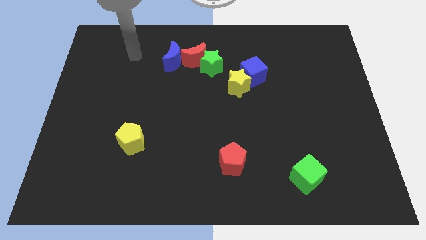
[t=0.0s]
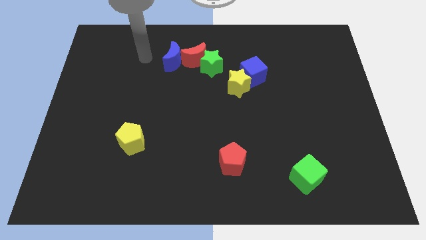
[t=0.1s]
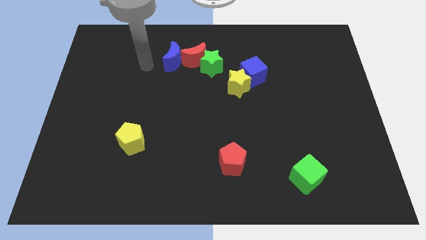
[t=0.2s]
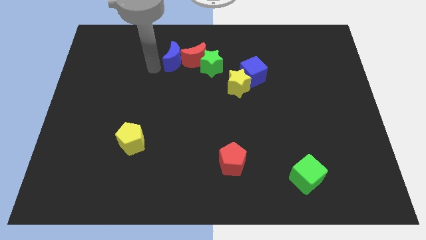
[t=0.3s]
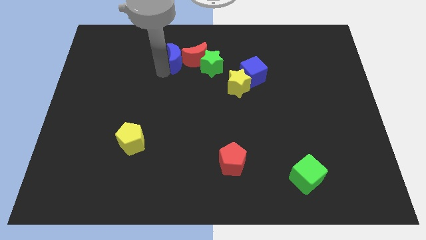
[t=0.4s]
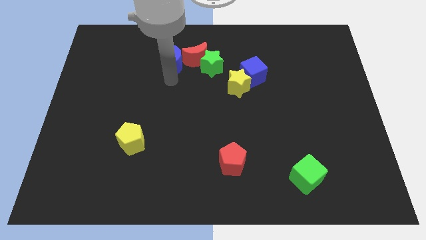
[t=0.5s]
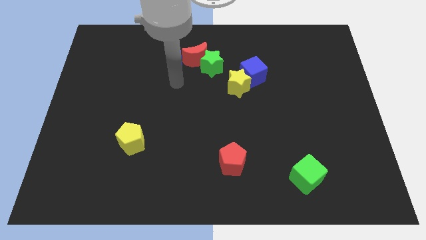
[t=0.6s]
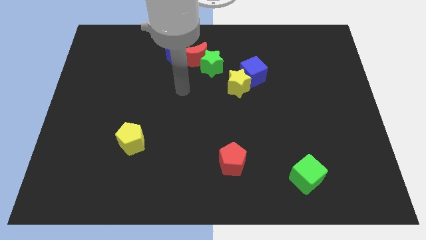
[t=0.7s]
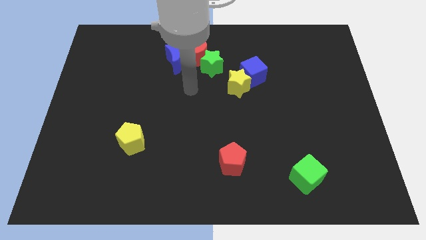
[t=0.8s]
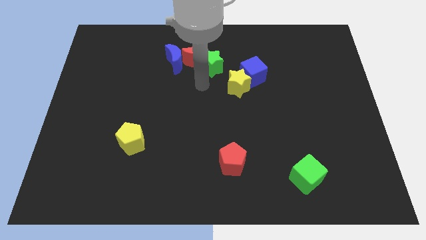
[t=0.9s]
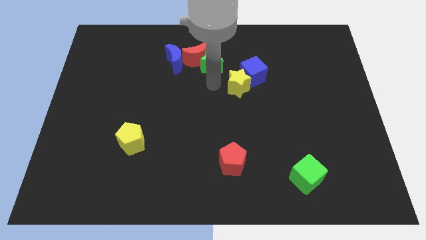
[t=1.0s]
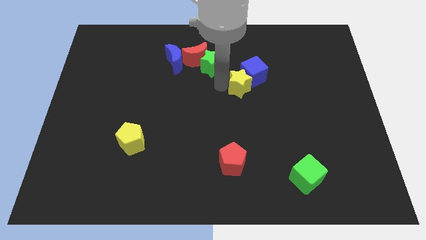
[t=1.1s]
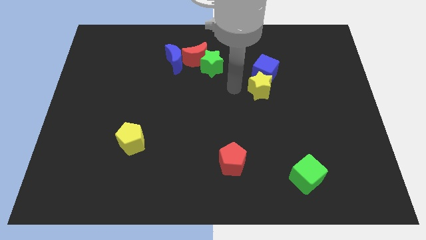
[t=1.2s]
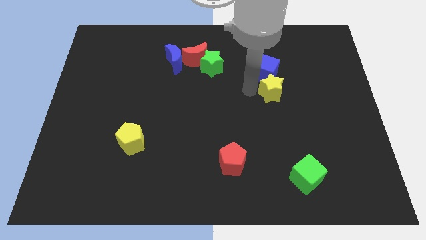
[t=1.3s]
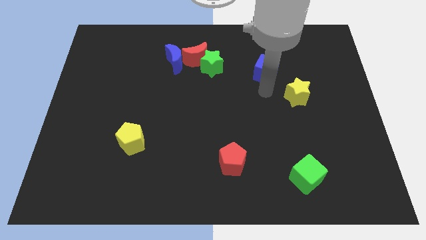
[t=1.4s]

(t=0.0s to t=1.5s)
separate the blue cube from the yellow star

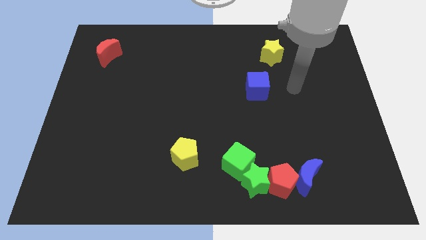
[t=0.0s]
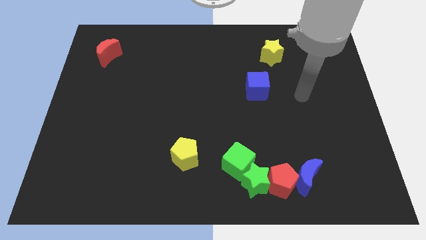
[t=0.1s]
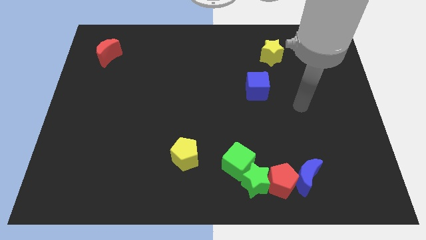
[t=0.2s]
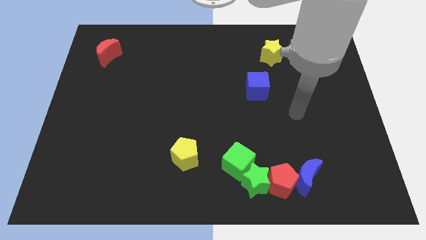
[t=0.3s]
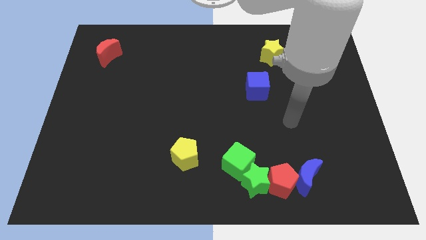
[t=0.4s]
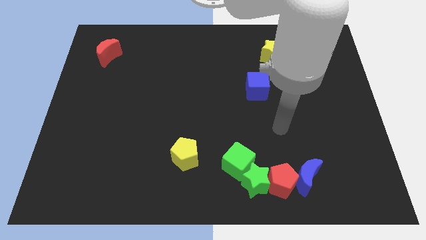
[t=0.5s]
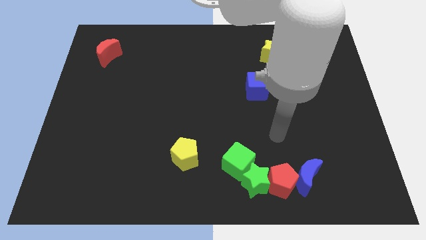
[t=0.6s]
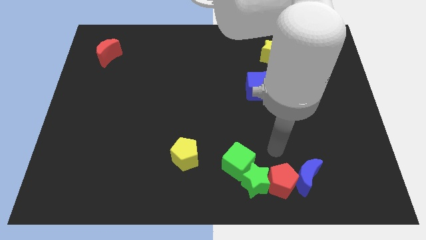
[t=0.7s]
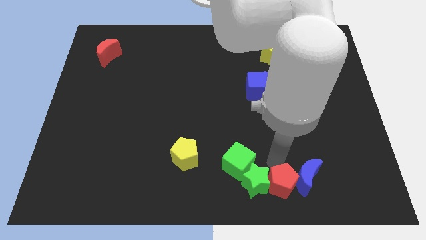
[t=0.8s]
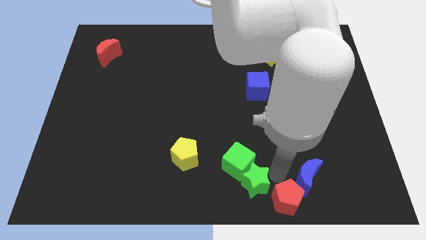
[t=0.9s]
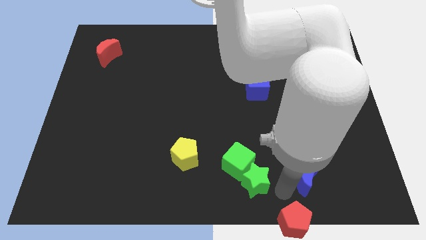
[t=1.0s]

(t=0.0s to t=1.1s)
move the blue moon away from the red pentagon

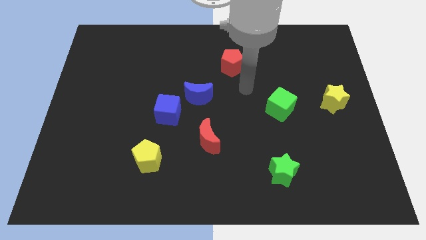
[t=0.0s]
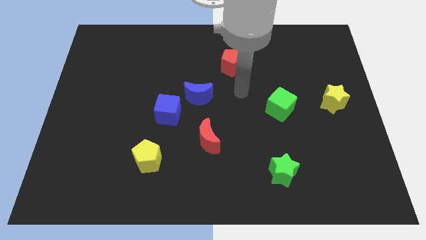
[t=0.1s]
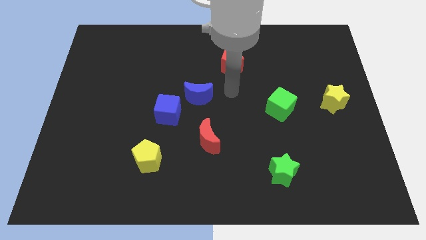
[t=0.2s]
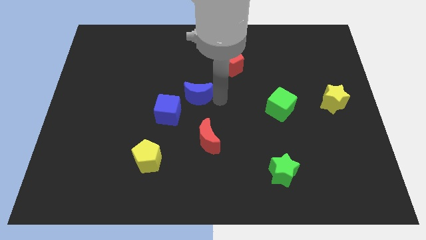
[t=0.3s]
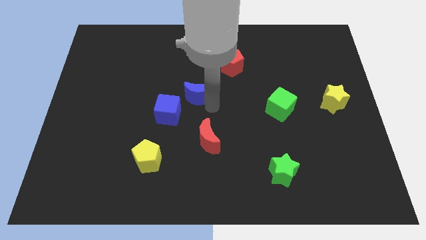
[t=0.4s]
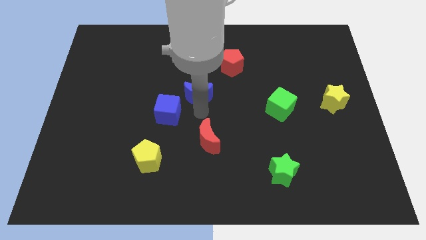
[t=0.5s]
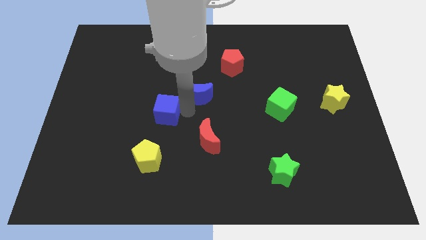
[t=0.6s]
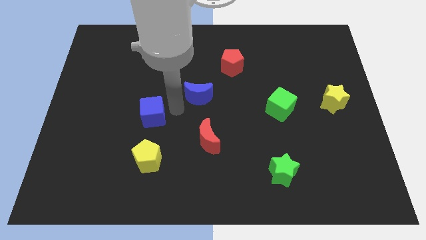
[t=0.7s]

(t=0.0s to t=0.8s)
move the blue moon away from the blue cube

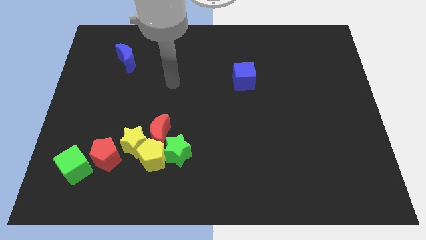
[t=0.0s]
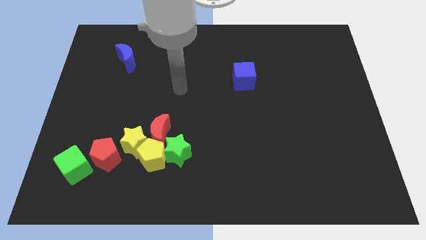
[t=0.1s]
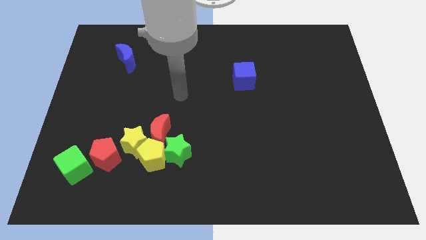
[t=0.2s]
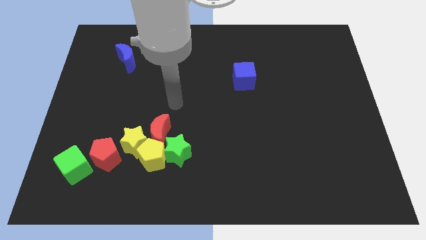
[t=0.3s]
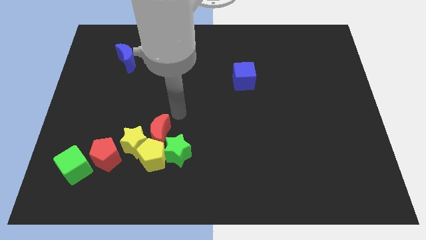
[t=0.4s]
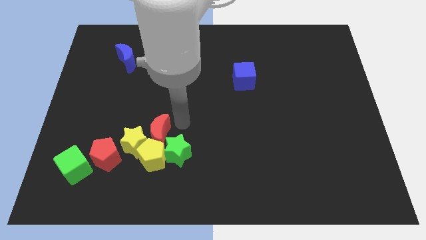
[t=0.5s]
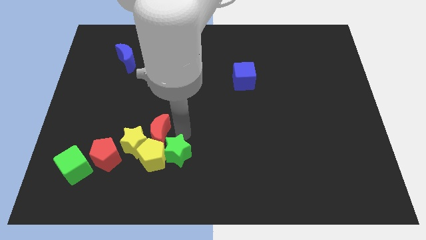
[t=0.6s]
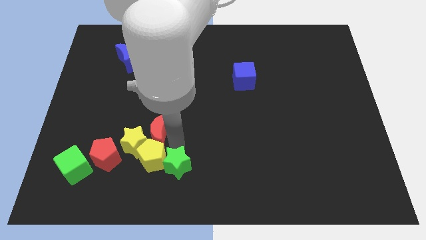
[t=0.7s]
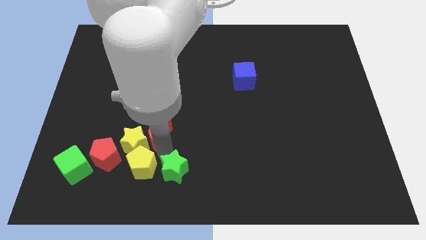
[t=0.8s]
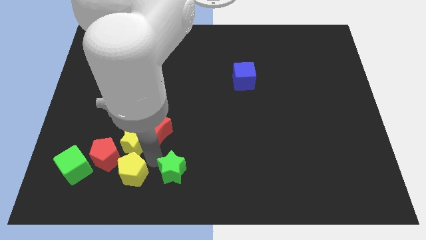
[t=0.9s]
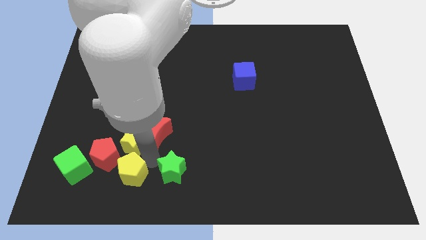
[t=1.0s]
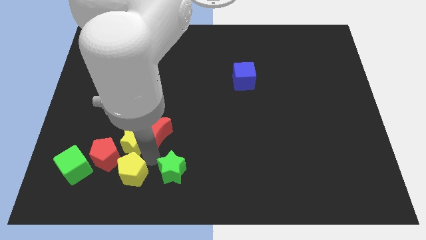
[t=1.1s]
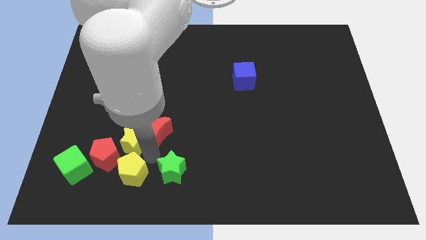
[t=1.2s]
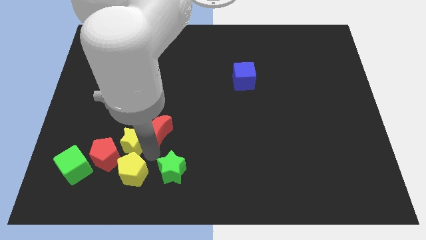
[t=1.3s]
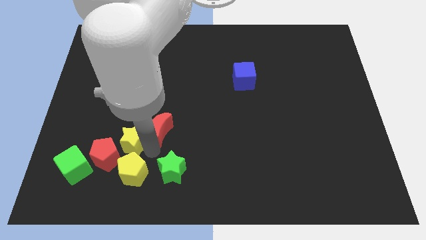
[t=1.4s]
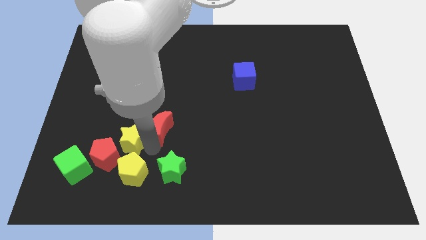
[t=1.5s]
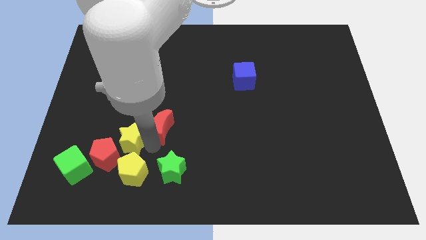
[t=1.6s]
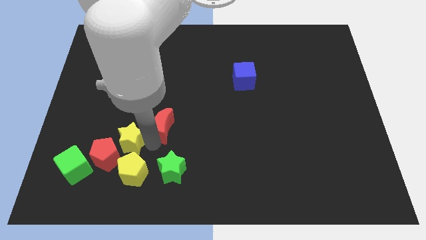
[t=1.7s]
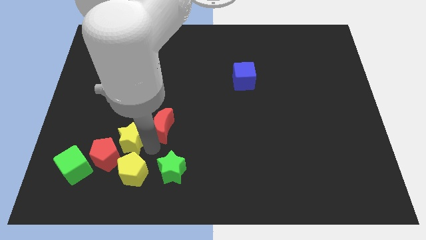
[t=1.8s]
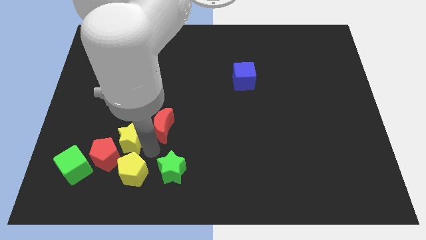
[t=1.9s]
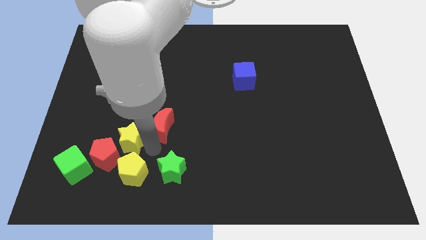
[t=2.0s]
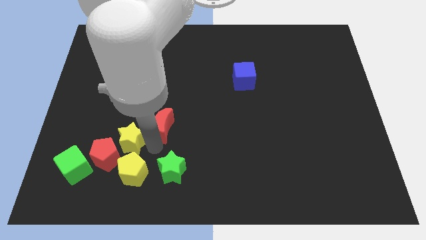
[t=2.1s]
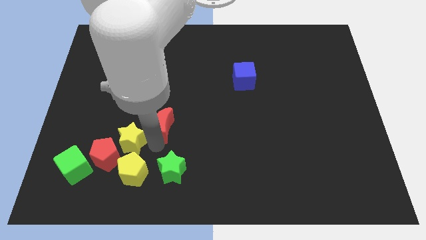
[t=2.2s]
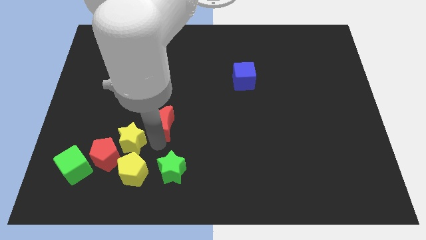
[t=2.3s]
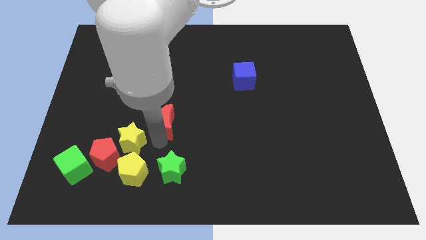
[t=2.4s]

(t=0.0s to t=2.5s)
move the red moon away from the group of blocks

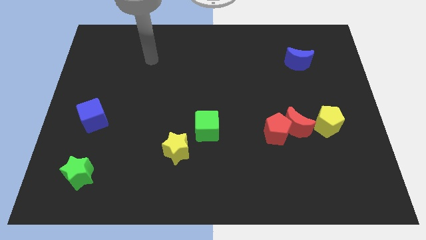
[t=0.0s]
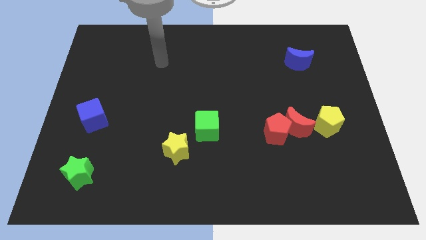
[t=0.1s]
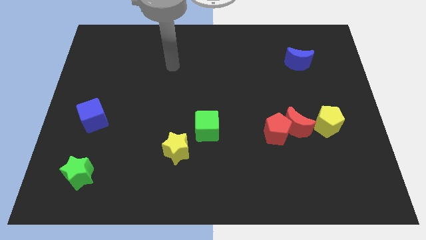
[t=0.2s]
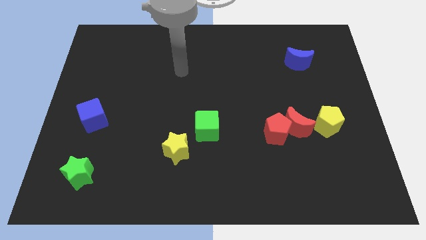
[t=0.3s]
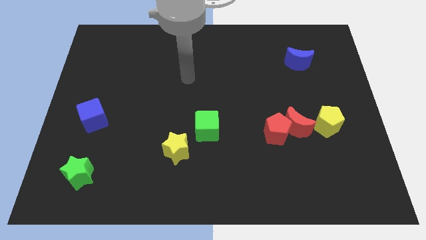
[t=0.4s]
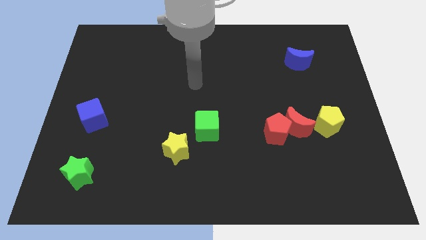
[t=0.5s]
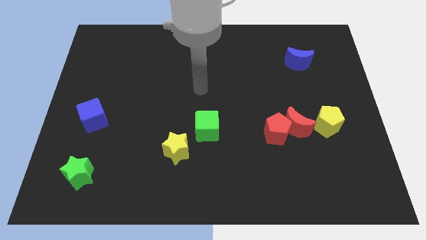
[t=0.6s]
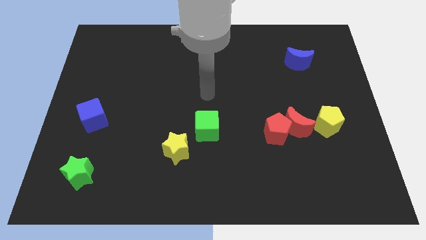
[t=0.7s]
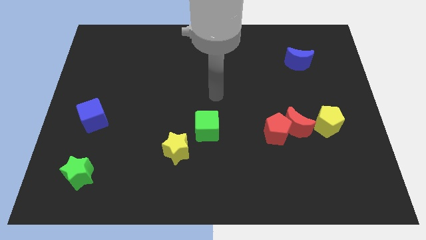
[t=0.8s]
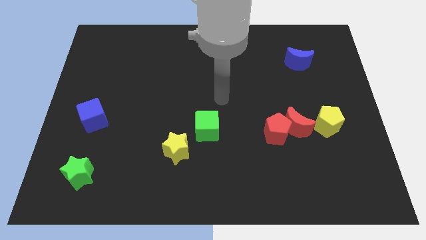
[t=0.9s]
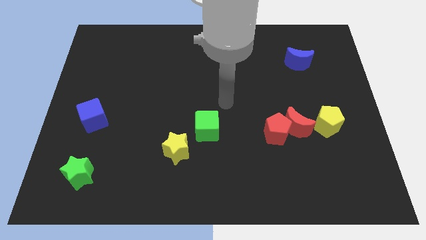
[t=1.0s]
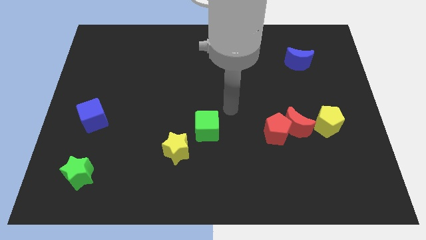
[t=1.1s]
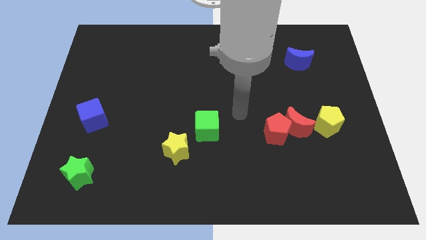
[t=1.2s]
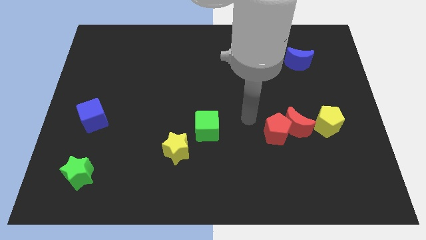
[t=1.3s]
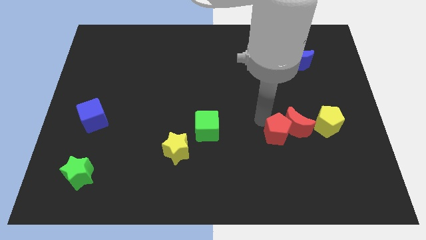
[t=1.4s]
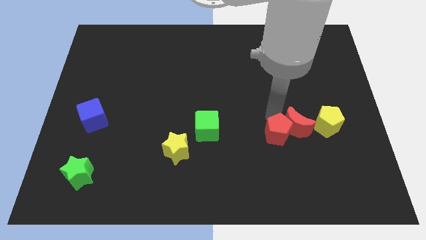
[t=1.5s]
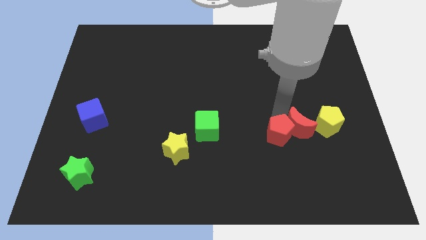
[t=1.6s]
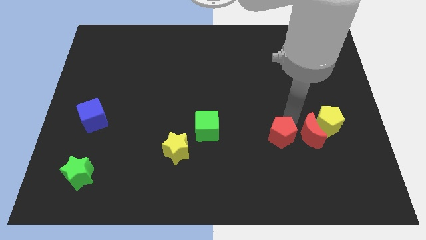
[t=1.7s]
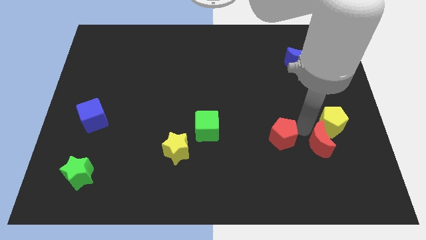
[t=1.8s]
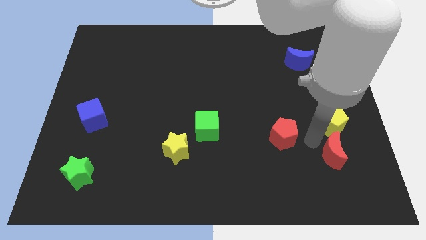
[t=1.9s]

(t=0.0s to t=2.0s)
move the red pentagon away from the red moon

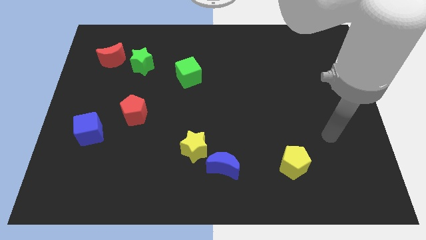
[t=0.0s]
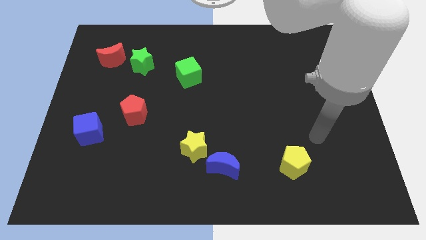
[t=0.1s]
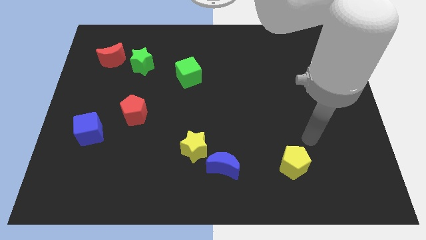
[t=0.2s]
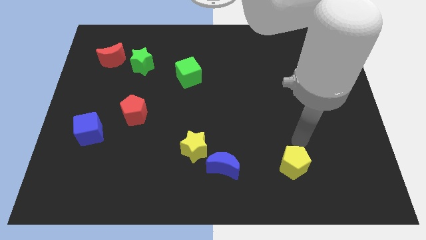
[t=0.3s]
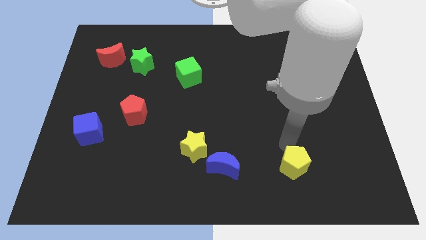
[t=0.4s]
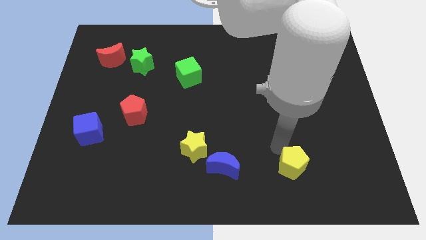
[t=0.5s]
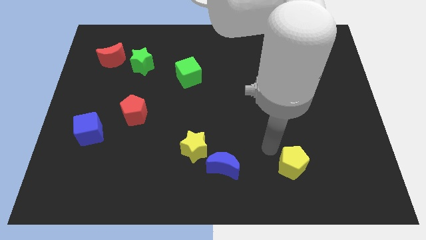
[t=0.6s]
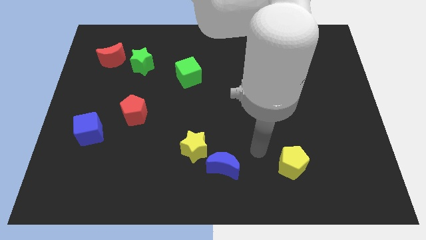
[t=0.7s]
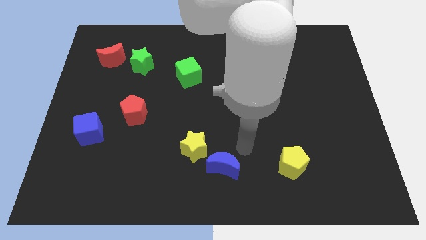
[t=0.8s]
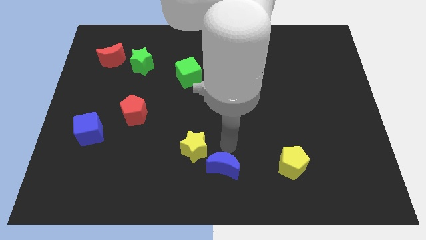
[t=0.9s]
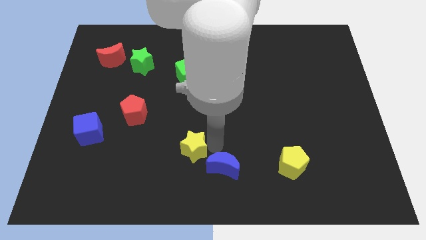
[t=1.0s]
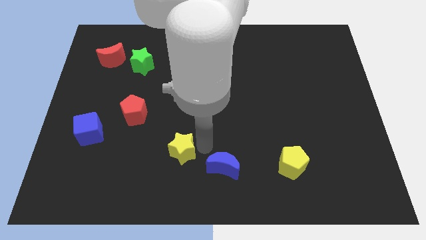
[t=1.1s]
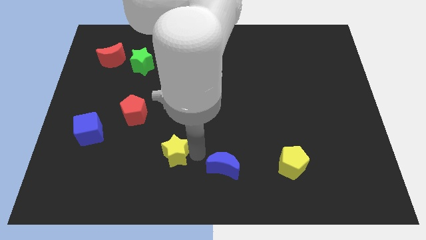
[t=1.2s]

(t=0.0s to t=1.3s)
move the blue moon away from the yellow star
